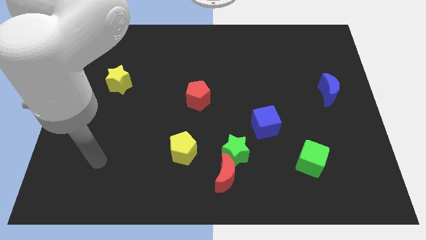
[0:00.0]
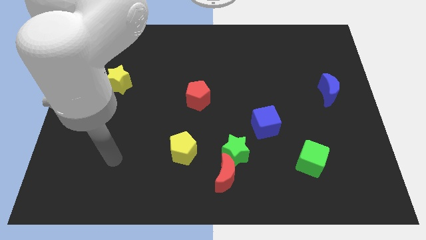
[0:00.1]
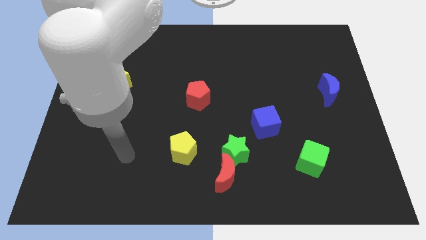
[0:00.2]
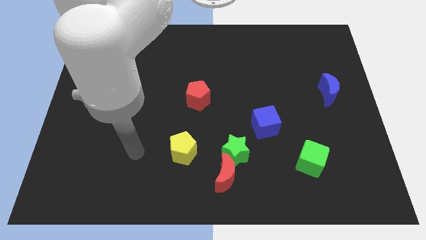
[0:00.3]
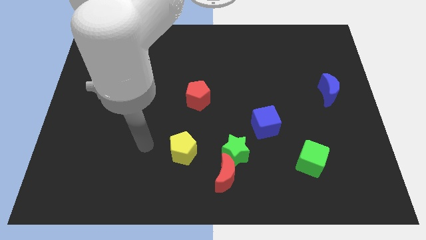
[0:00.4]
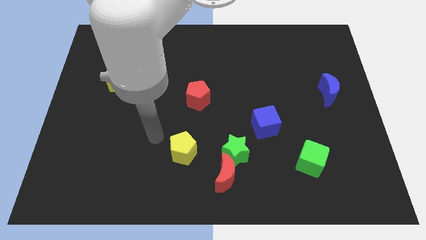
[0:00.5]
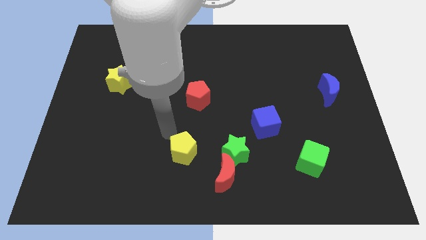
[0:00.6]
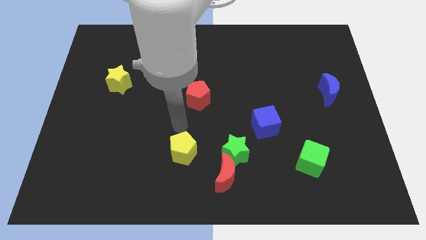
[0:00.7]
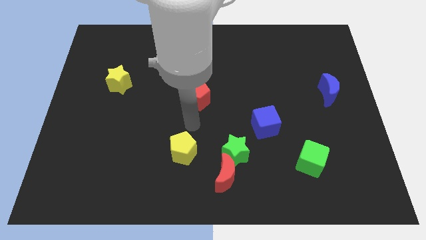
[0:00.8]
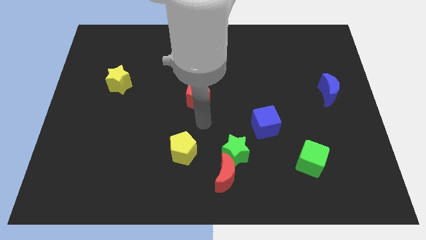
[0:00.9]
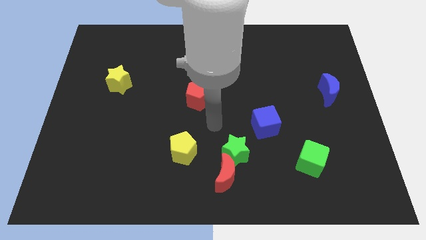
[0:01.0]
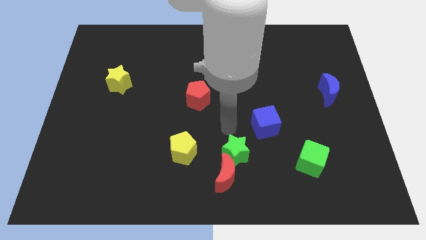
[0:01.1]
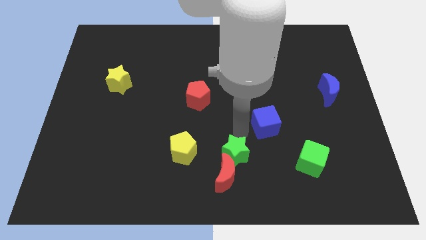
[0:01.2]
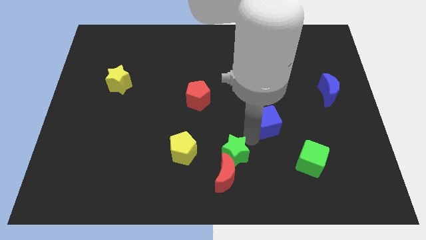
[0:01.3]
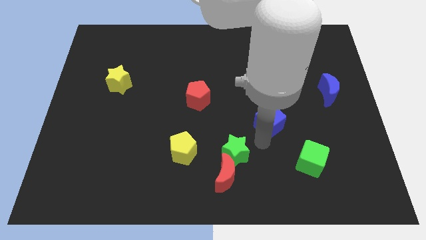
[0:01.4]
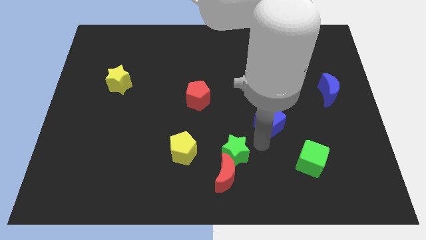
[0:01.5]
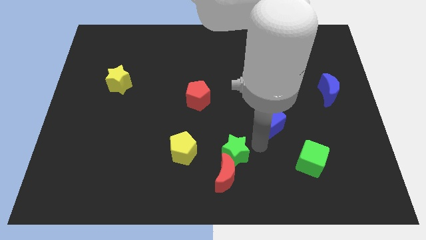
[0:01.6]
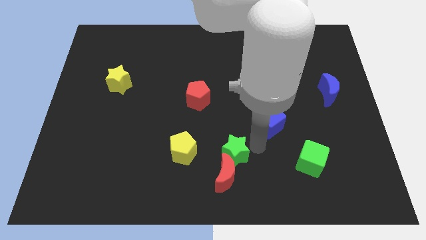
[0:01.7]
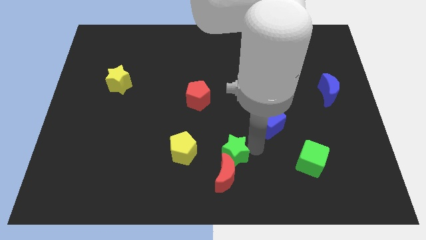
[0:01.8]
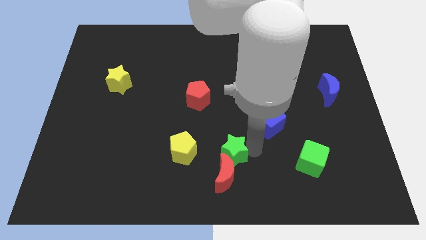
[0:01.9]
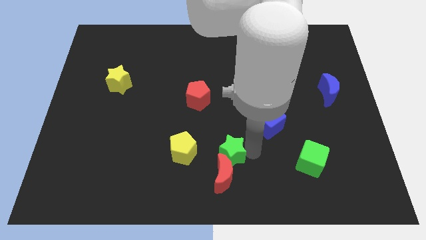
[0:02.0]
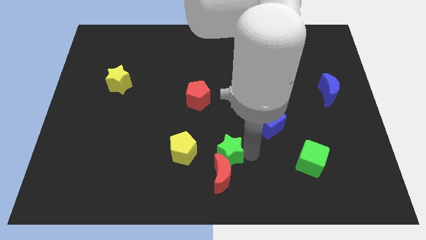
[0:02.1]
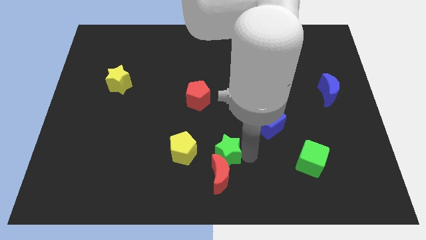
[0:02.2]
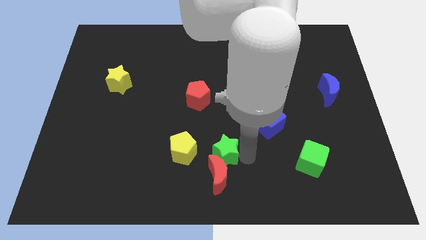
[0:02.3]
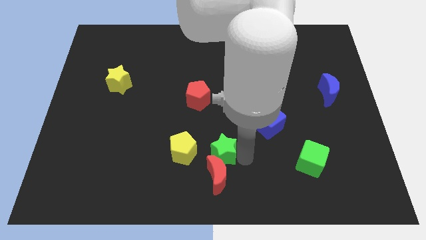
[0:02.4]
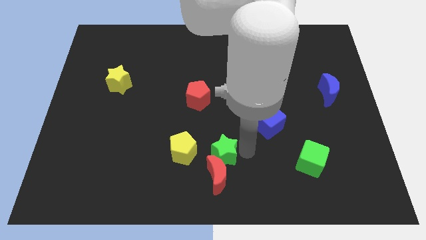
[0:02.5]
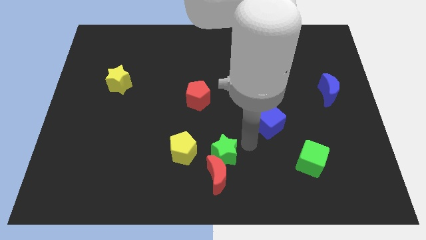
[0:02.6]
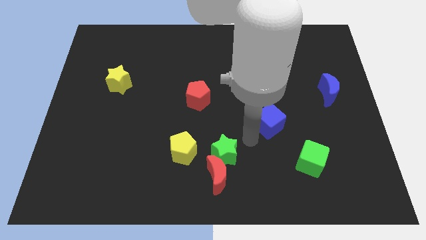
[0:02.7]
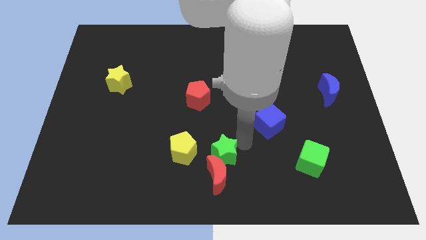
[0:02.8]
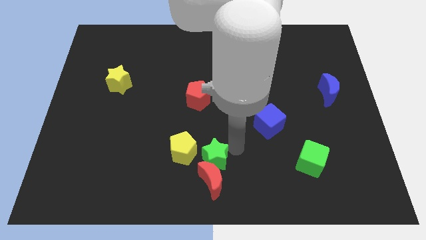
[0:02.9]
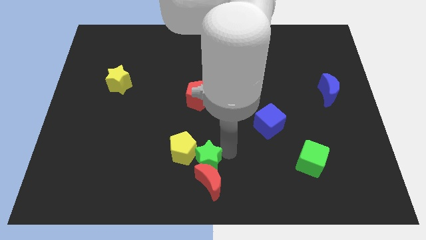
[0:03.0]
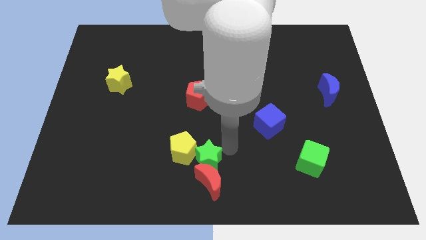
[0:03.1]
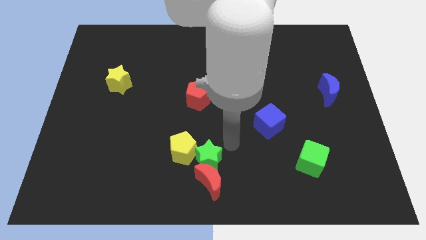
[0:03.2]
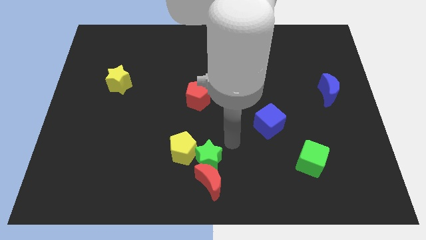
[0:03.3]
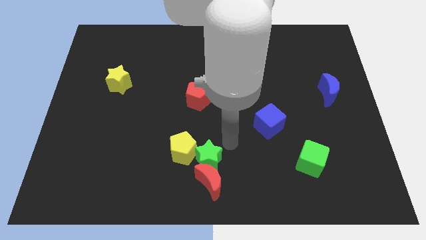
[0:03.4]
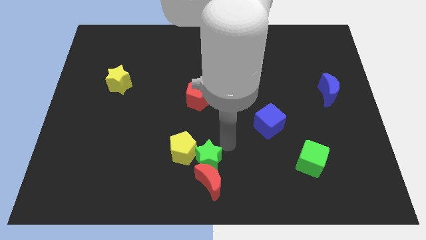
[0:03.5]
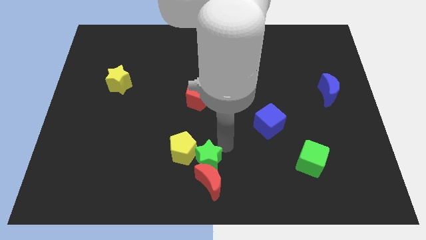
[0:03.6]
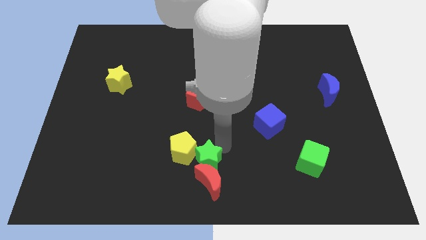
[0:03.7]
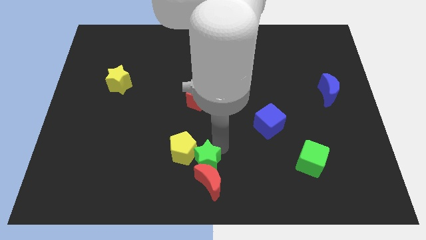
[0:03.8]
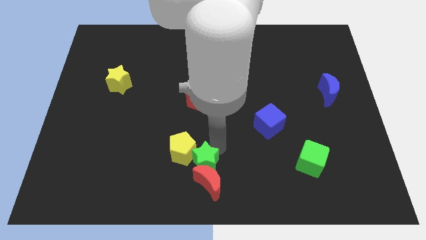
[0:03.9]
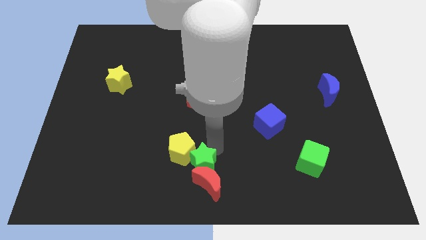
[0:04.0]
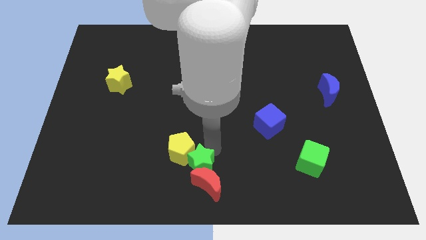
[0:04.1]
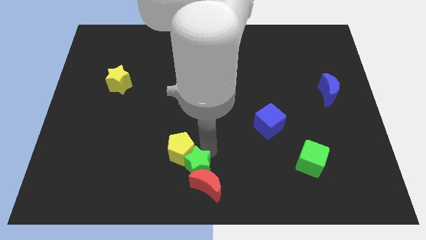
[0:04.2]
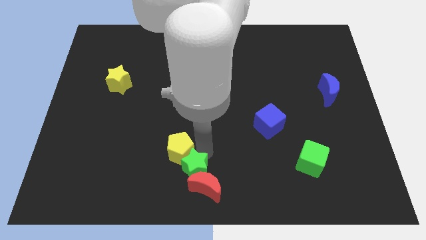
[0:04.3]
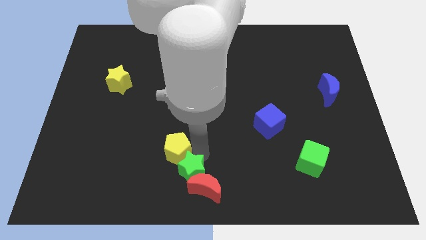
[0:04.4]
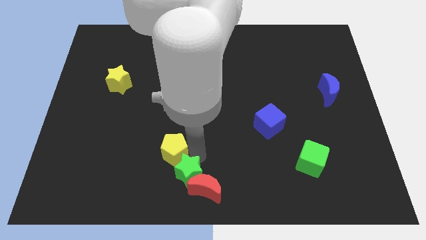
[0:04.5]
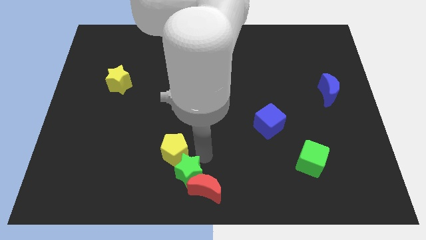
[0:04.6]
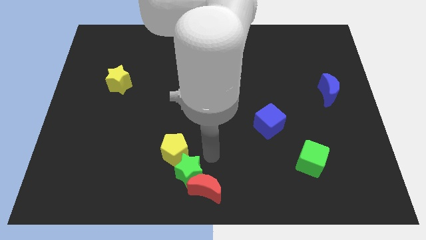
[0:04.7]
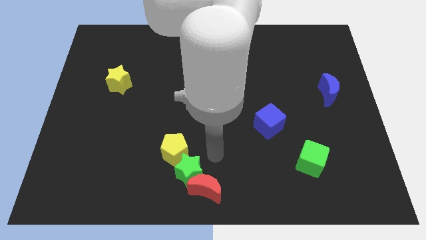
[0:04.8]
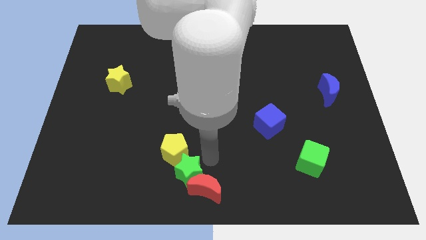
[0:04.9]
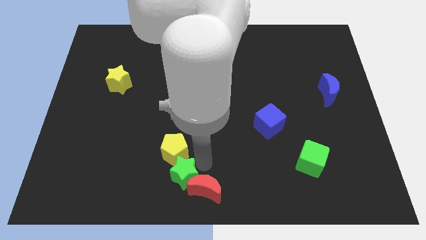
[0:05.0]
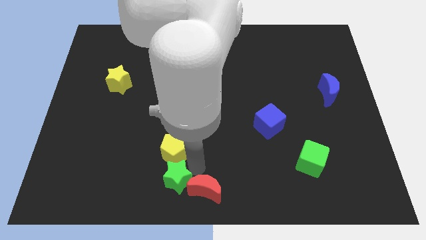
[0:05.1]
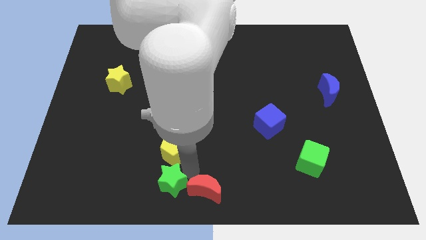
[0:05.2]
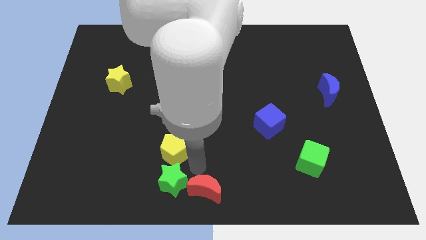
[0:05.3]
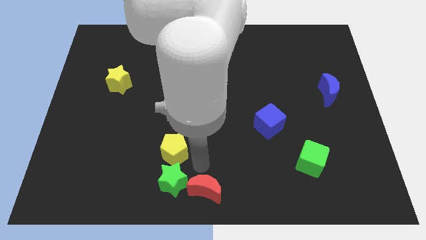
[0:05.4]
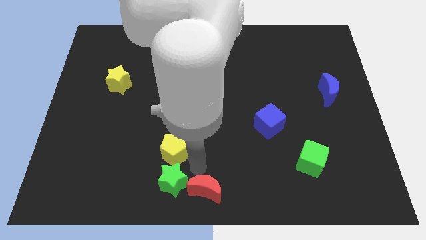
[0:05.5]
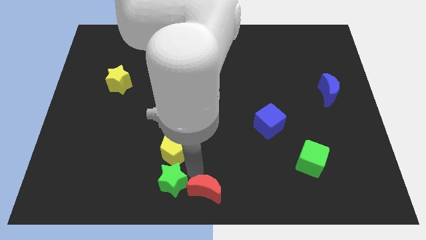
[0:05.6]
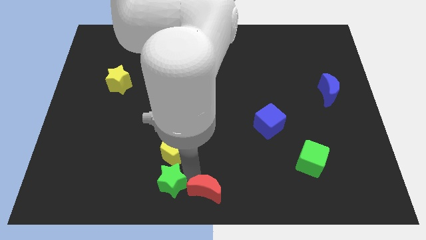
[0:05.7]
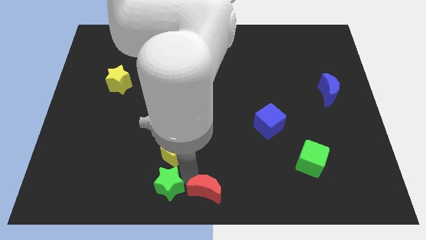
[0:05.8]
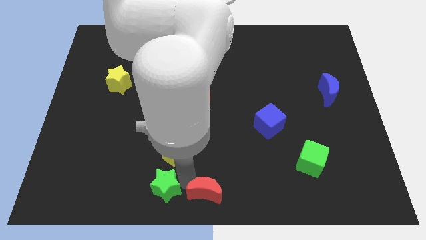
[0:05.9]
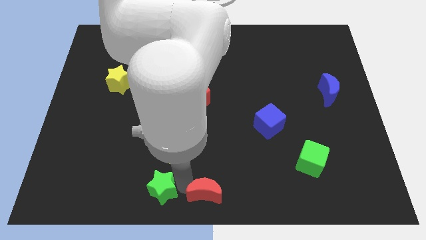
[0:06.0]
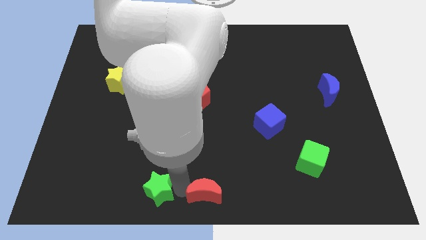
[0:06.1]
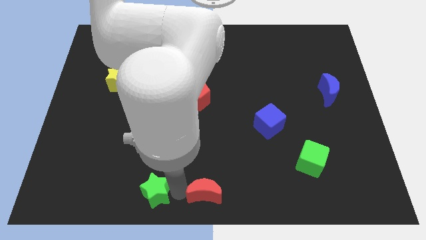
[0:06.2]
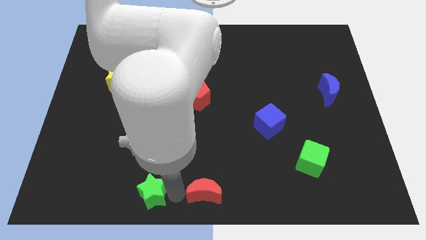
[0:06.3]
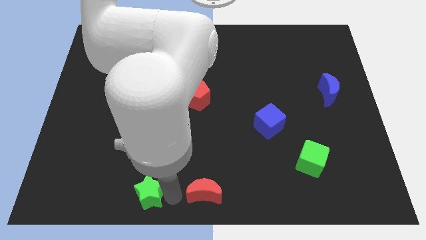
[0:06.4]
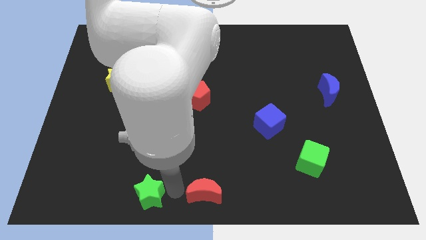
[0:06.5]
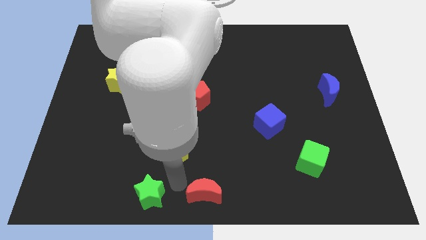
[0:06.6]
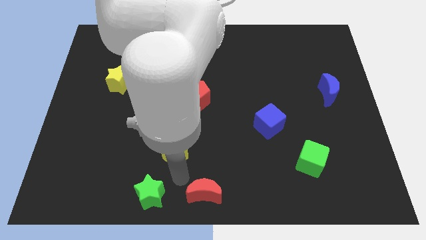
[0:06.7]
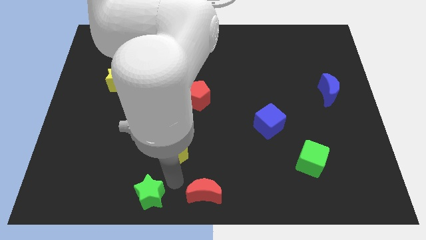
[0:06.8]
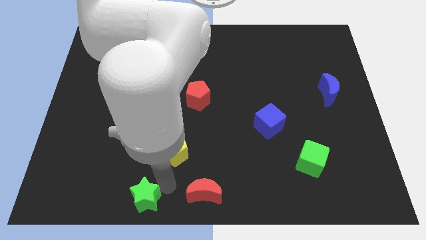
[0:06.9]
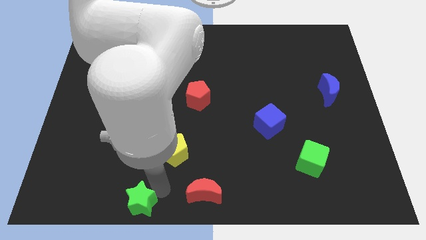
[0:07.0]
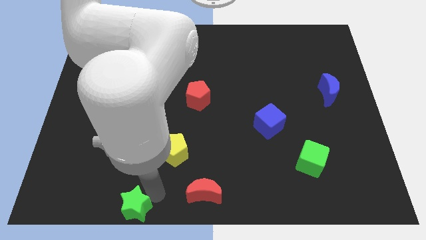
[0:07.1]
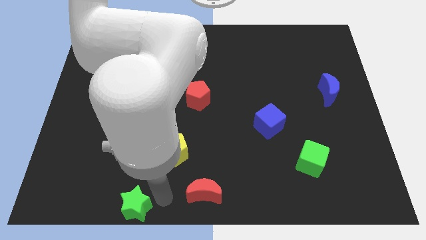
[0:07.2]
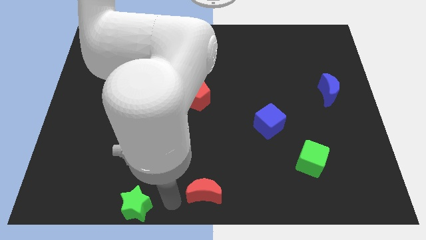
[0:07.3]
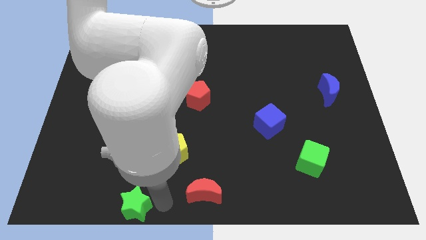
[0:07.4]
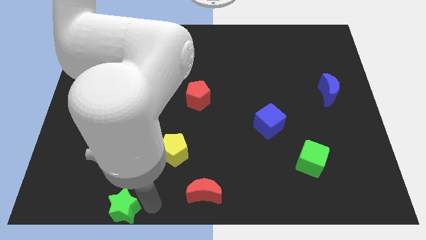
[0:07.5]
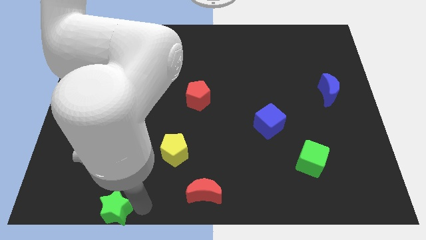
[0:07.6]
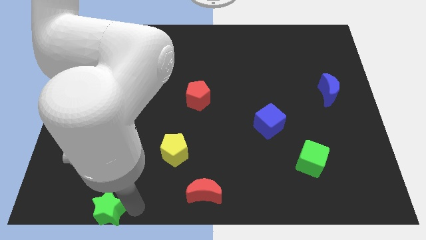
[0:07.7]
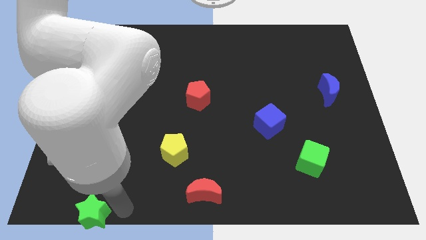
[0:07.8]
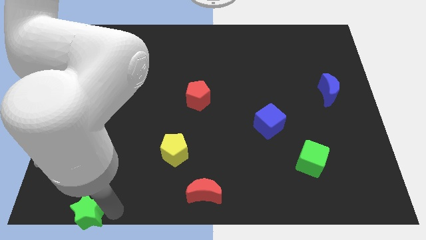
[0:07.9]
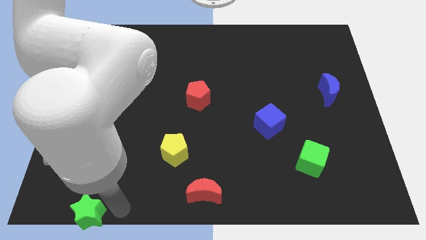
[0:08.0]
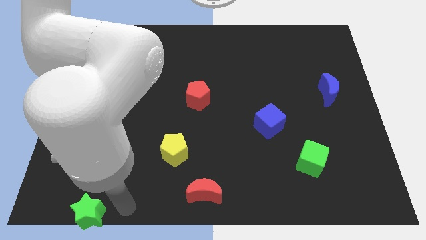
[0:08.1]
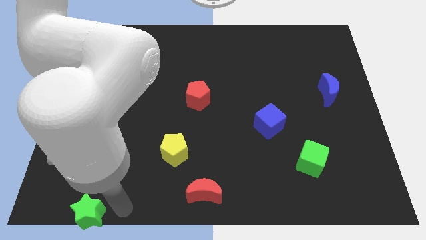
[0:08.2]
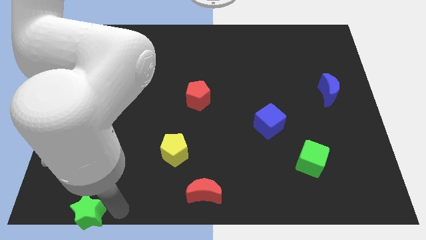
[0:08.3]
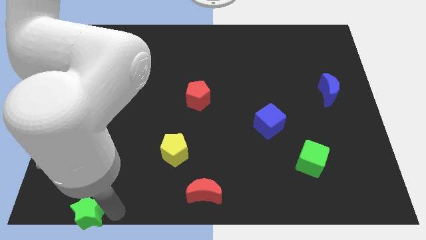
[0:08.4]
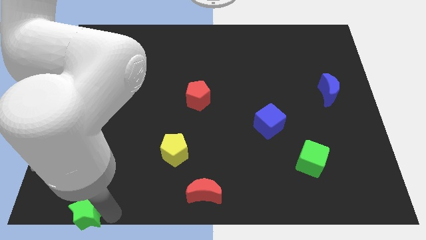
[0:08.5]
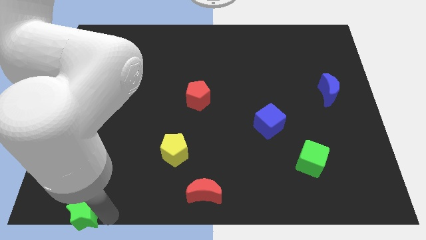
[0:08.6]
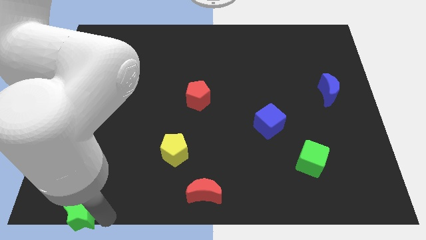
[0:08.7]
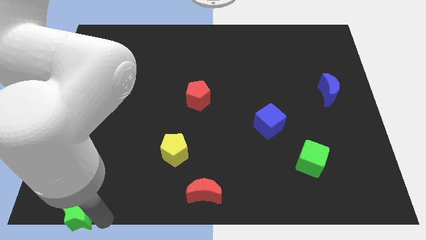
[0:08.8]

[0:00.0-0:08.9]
move the green star to the bottom left of the board
